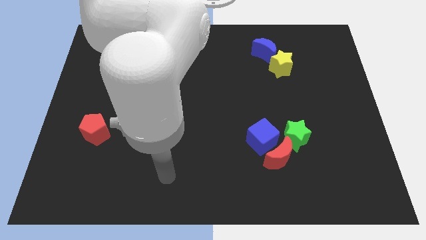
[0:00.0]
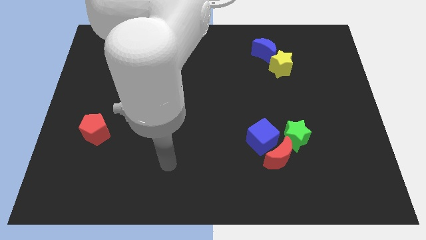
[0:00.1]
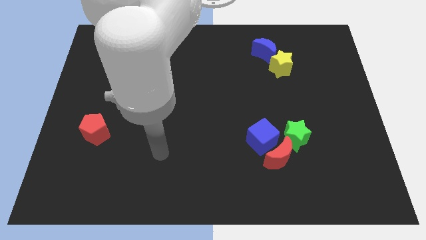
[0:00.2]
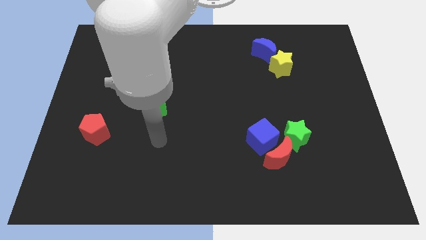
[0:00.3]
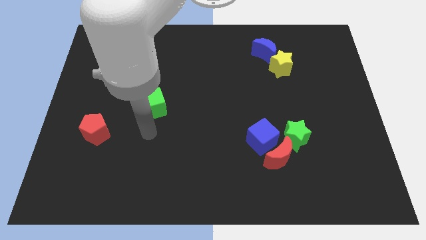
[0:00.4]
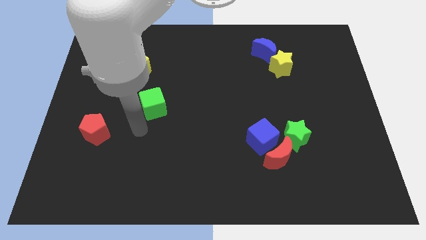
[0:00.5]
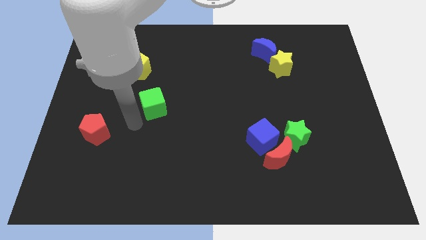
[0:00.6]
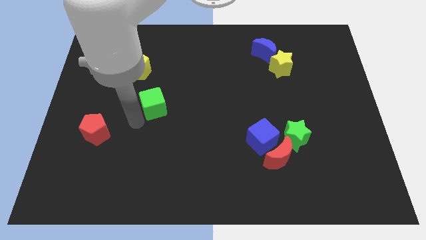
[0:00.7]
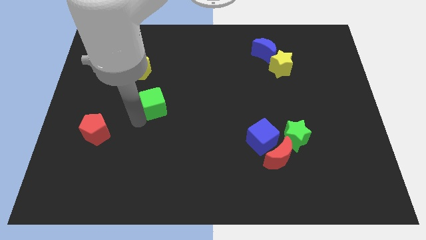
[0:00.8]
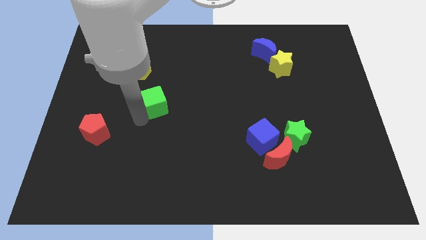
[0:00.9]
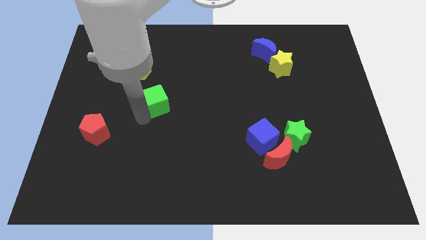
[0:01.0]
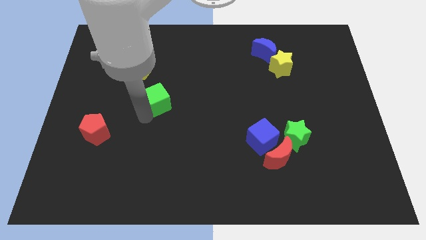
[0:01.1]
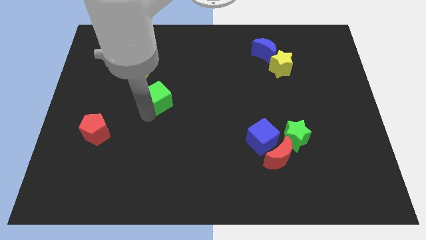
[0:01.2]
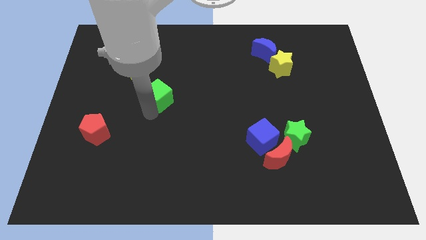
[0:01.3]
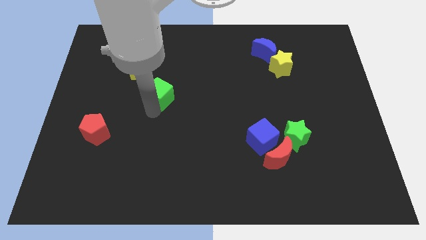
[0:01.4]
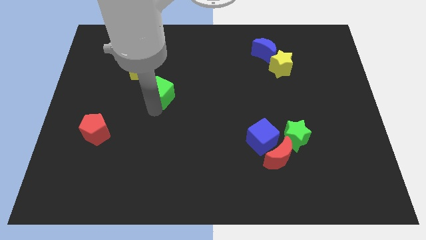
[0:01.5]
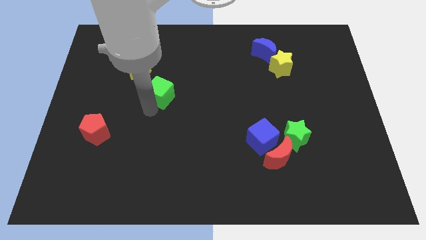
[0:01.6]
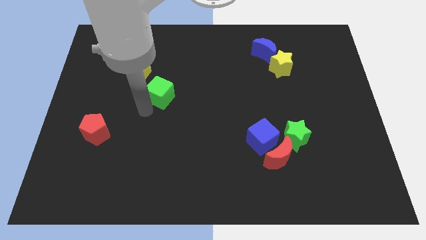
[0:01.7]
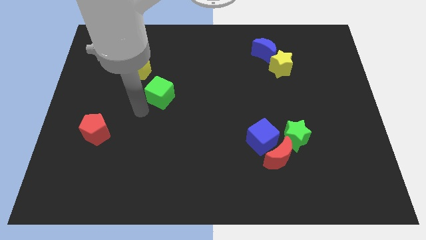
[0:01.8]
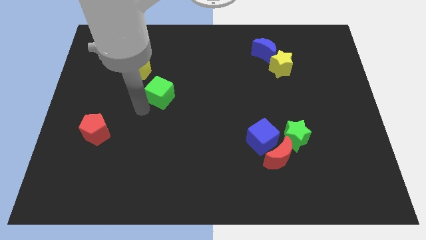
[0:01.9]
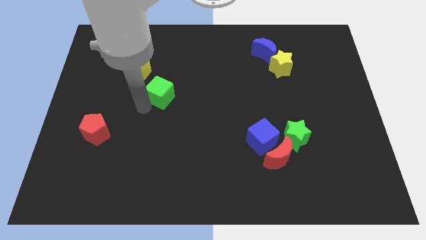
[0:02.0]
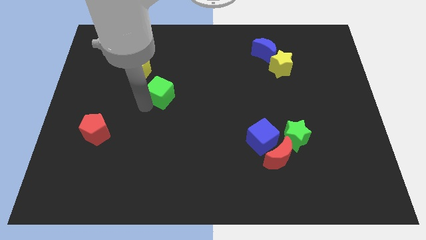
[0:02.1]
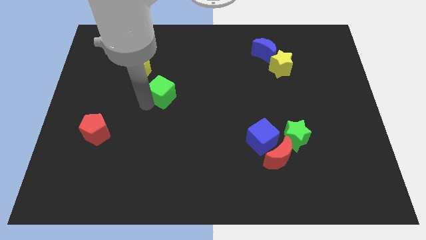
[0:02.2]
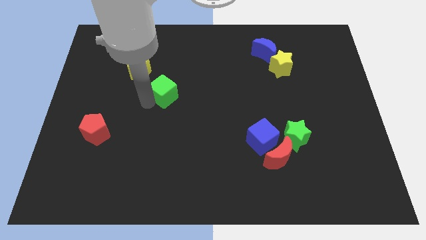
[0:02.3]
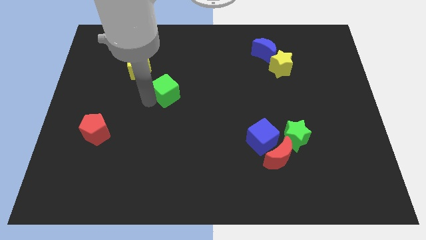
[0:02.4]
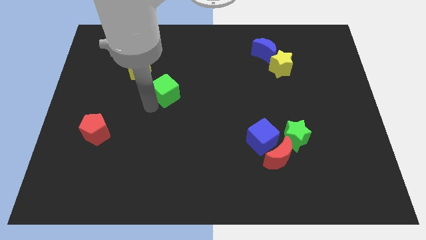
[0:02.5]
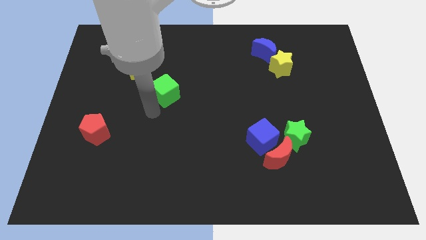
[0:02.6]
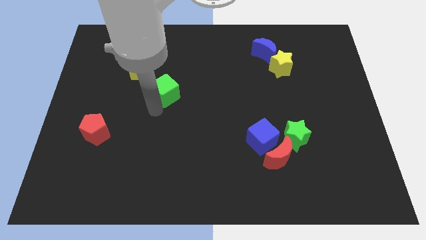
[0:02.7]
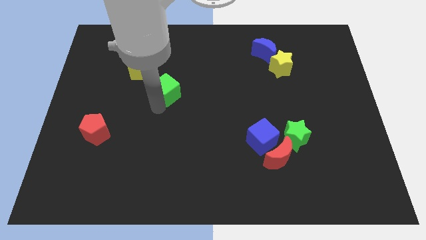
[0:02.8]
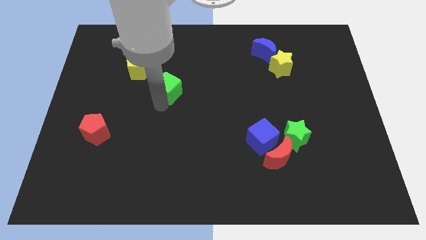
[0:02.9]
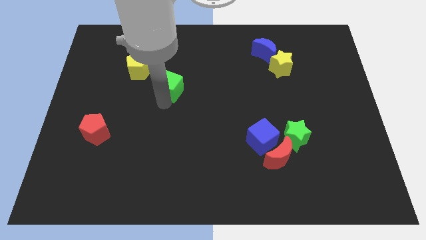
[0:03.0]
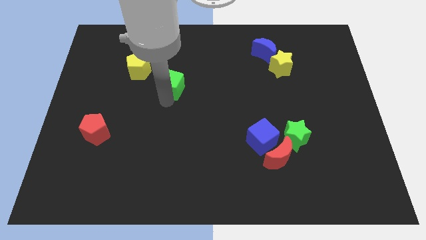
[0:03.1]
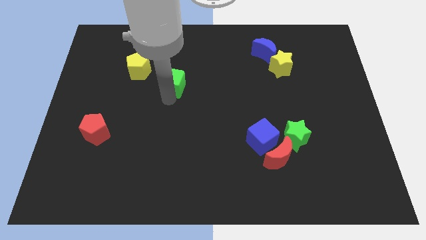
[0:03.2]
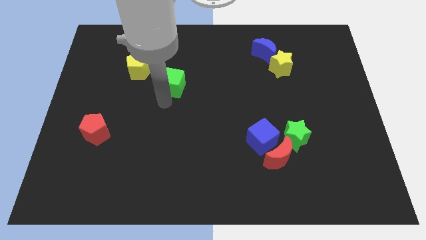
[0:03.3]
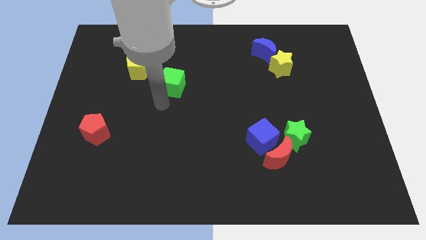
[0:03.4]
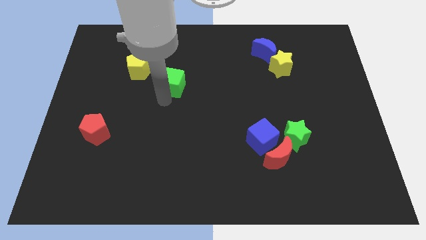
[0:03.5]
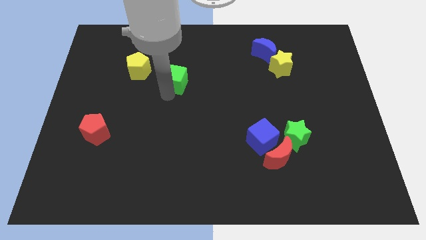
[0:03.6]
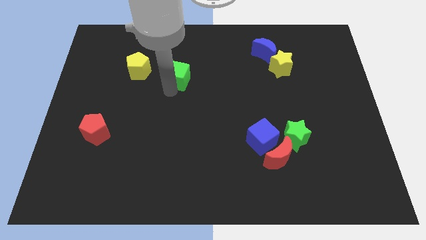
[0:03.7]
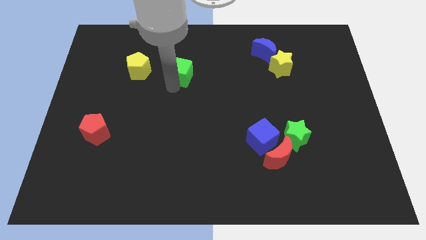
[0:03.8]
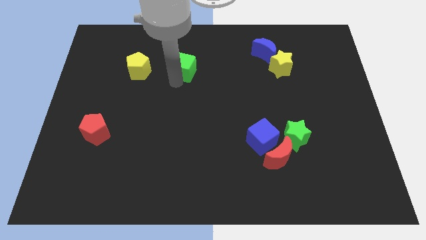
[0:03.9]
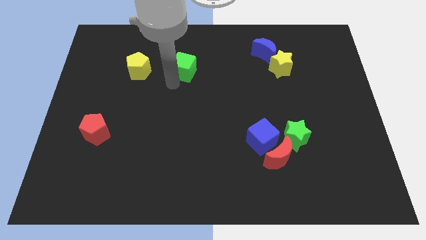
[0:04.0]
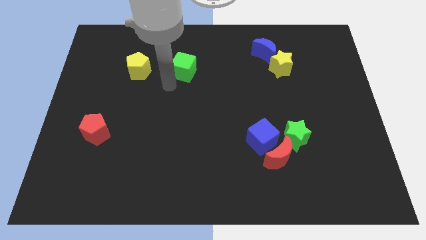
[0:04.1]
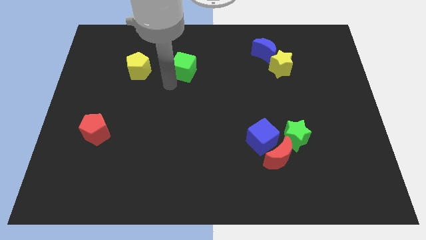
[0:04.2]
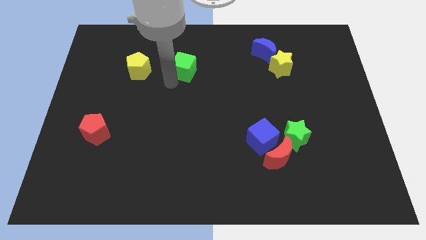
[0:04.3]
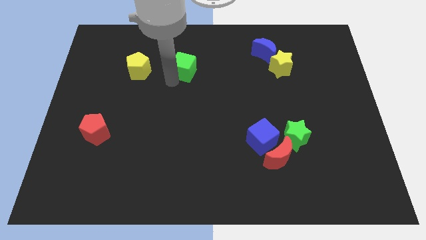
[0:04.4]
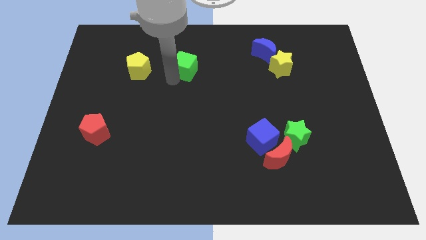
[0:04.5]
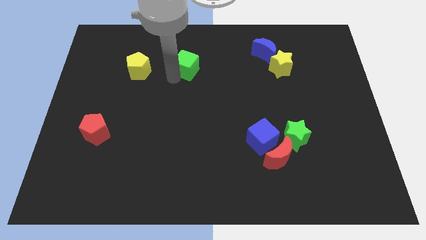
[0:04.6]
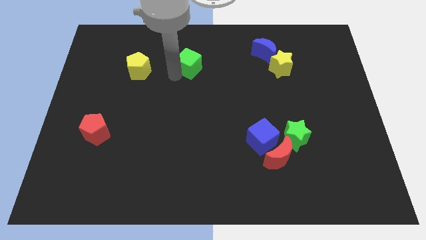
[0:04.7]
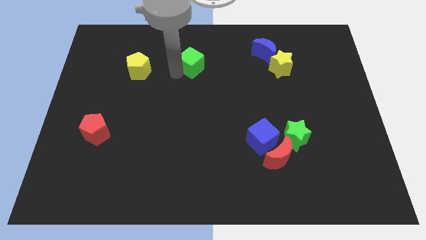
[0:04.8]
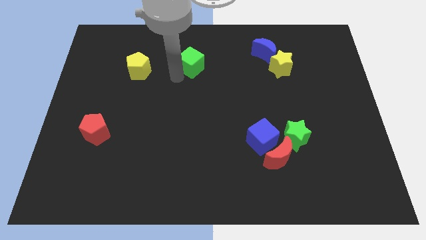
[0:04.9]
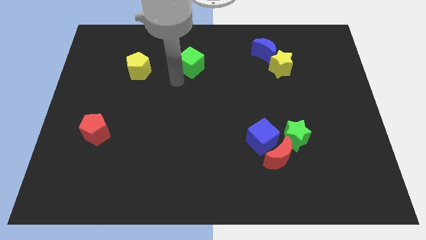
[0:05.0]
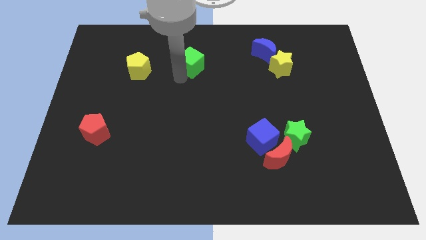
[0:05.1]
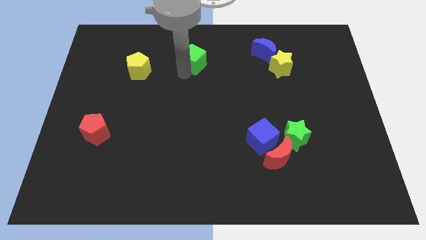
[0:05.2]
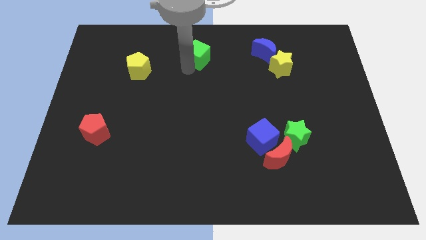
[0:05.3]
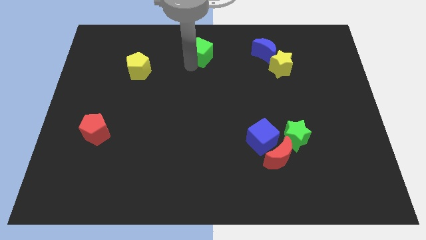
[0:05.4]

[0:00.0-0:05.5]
push the green cube to the towards your base
